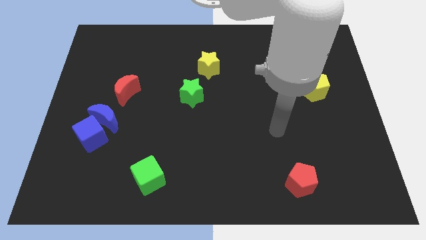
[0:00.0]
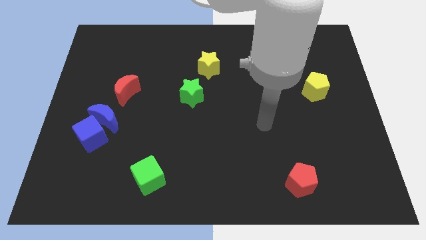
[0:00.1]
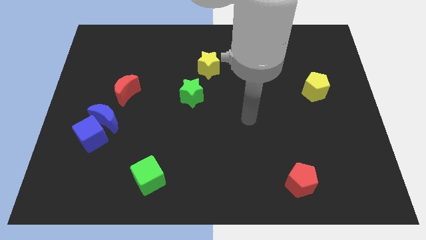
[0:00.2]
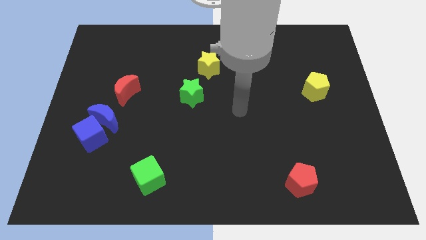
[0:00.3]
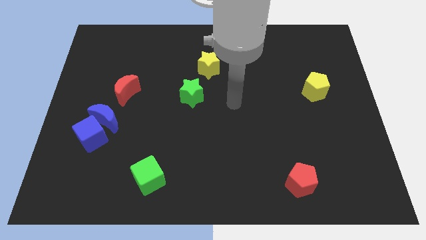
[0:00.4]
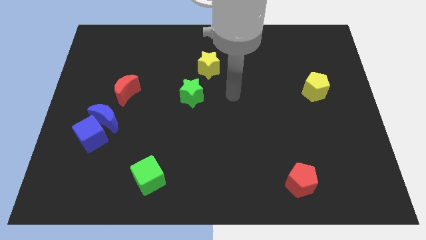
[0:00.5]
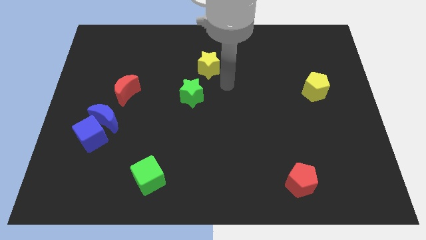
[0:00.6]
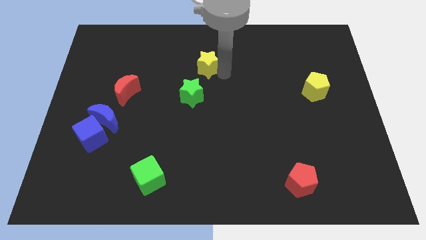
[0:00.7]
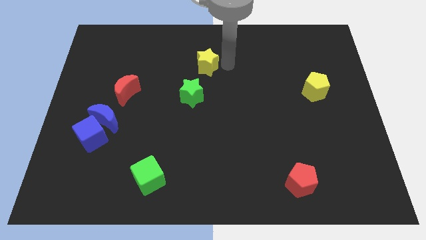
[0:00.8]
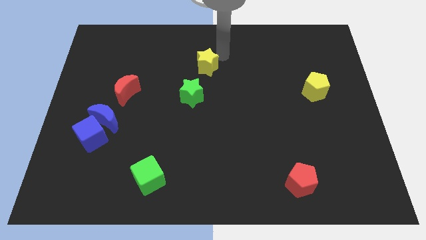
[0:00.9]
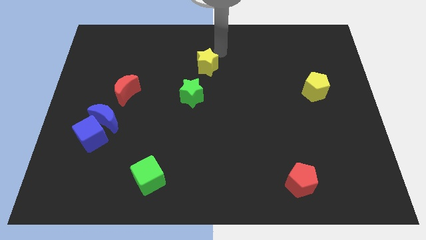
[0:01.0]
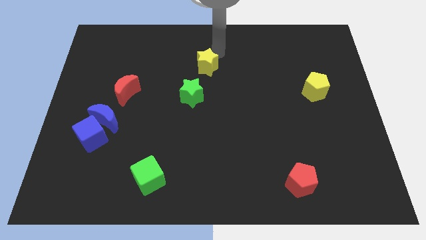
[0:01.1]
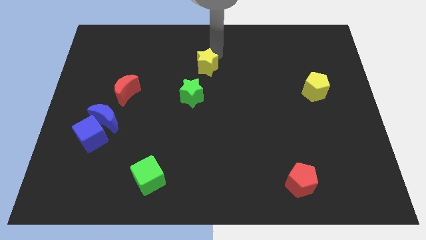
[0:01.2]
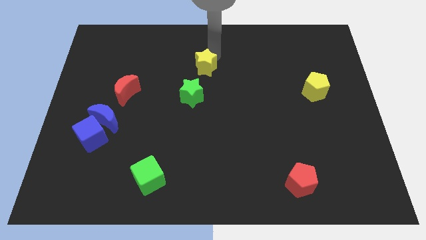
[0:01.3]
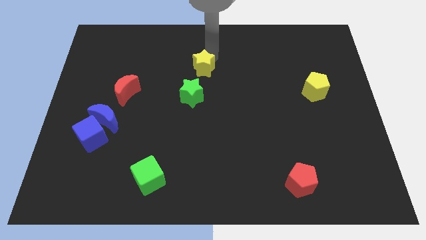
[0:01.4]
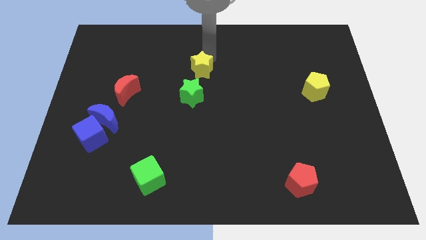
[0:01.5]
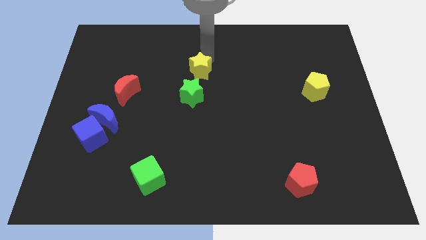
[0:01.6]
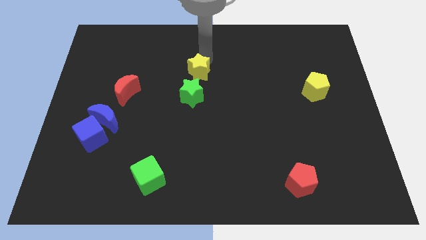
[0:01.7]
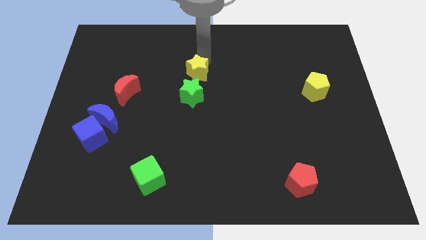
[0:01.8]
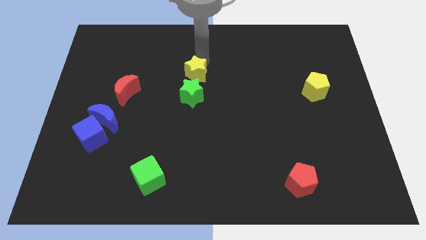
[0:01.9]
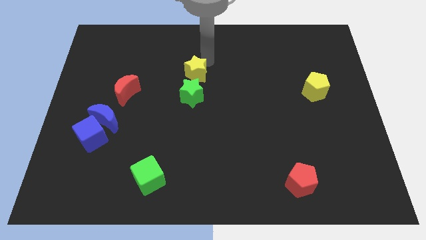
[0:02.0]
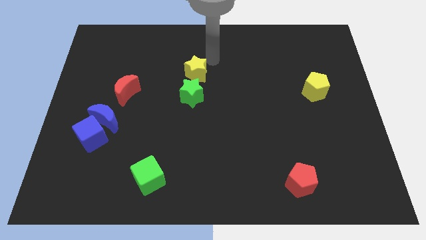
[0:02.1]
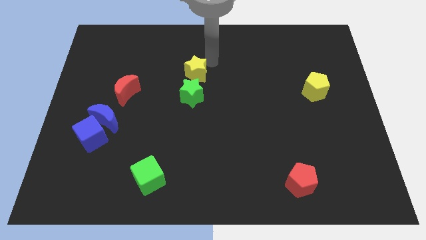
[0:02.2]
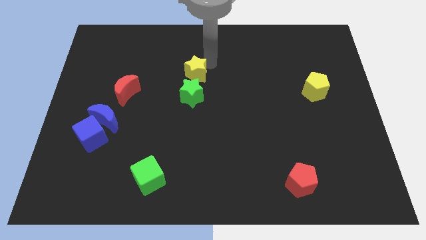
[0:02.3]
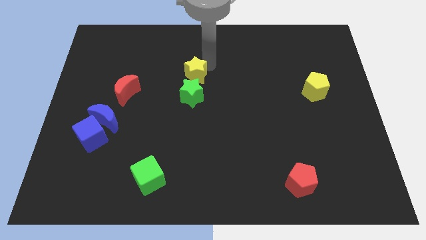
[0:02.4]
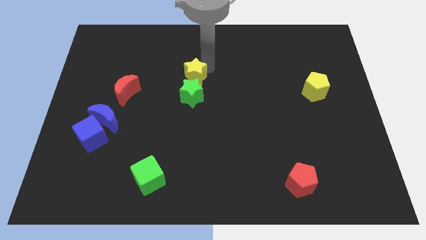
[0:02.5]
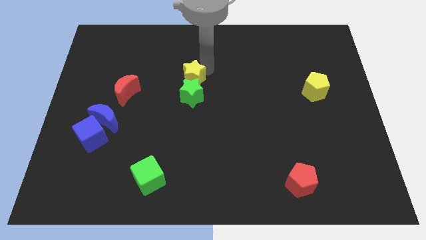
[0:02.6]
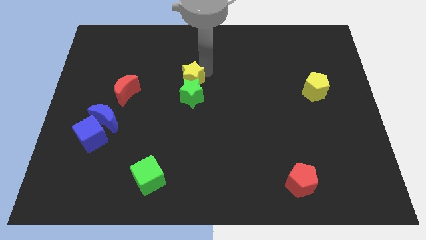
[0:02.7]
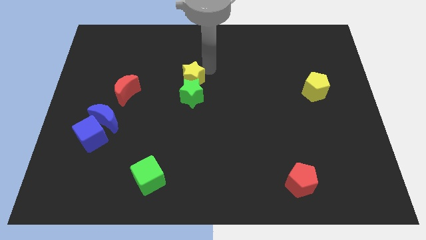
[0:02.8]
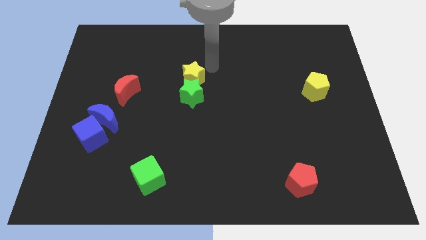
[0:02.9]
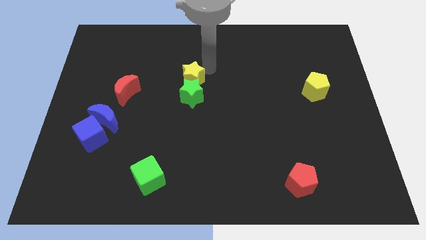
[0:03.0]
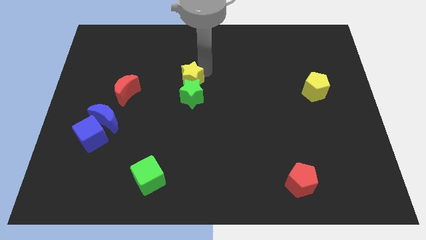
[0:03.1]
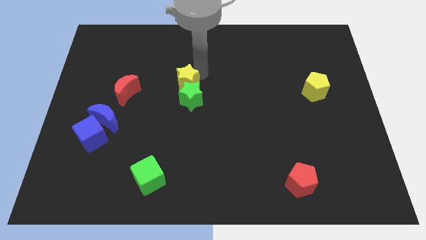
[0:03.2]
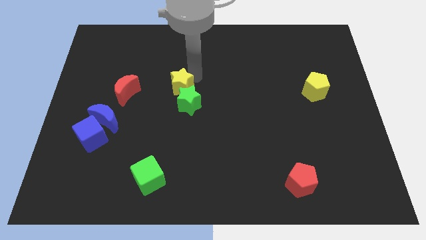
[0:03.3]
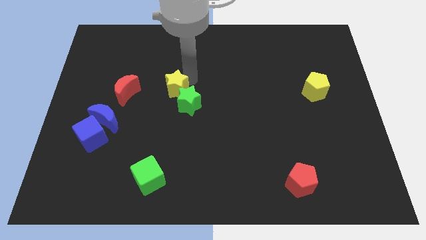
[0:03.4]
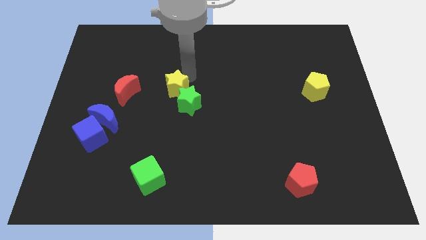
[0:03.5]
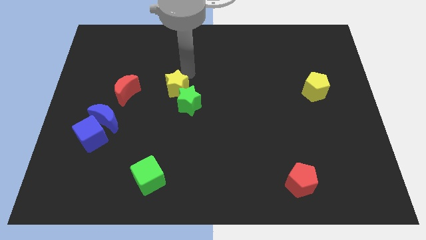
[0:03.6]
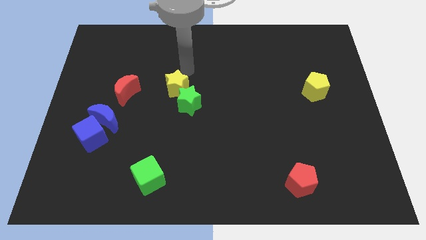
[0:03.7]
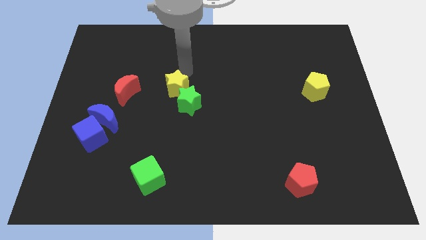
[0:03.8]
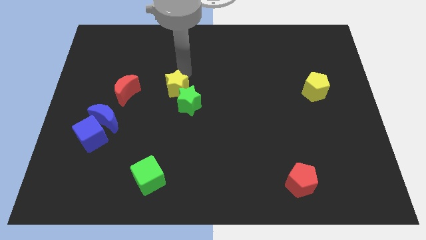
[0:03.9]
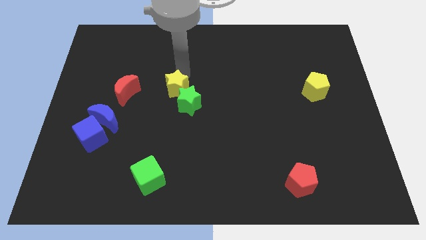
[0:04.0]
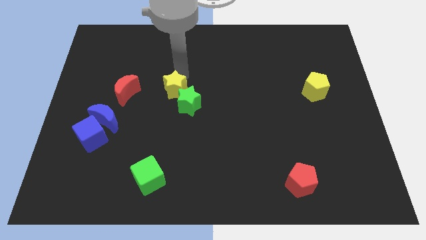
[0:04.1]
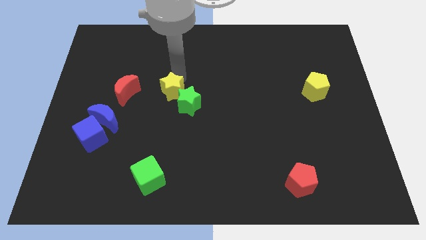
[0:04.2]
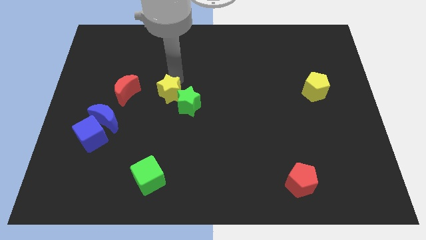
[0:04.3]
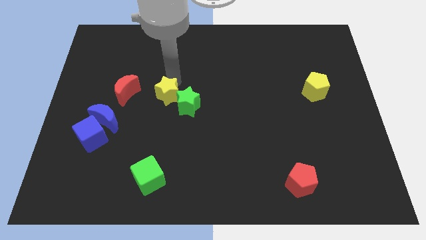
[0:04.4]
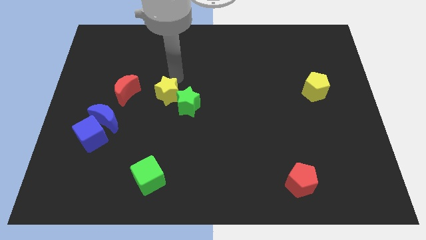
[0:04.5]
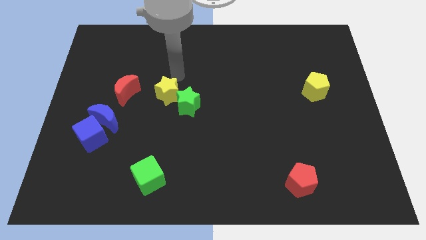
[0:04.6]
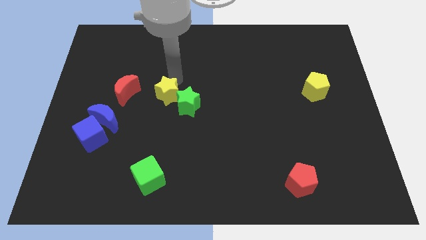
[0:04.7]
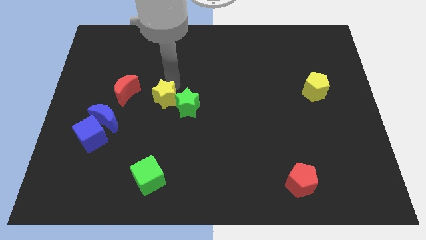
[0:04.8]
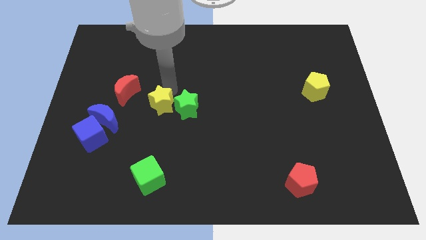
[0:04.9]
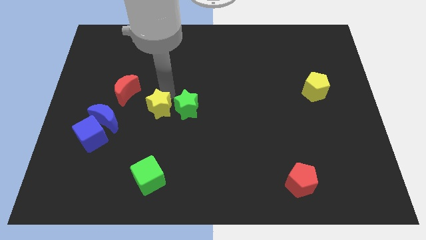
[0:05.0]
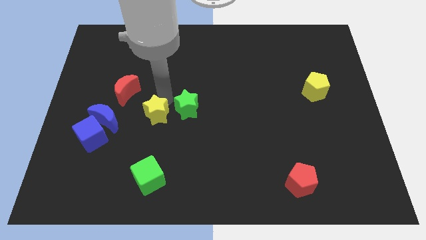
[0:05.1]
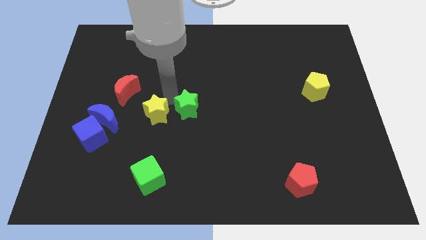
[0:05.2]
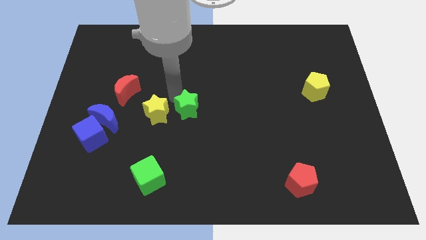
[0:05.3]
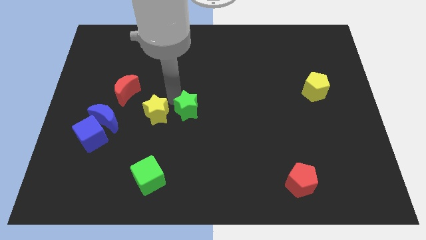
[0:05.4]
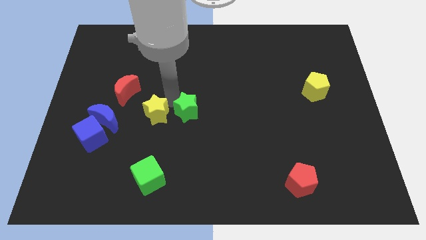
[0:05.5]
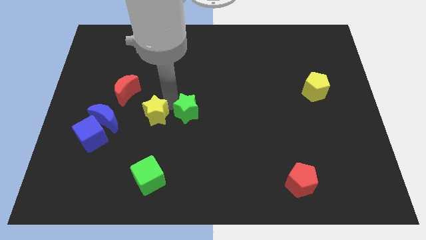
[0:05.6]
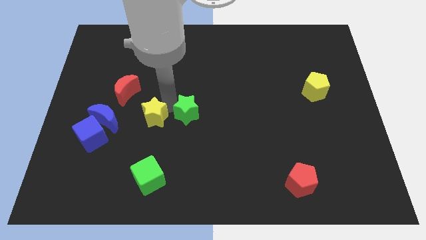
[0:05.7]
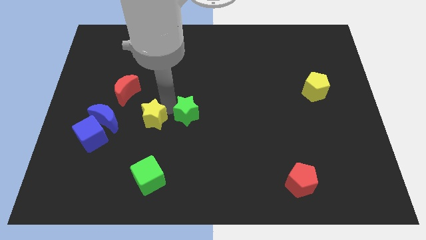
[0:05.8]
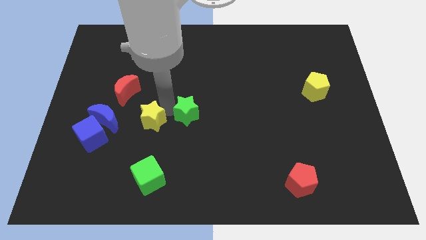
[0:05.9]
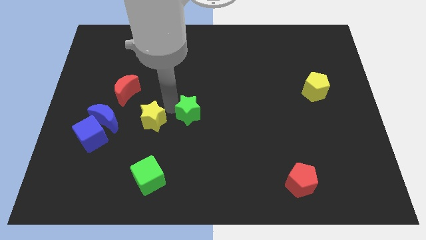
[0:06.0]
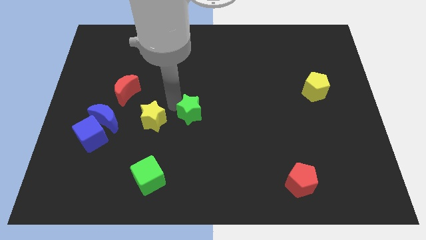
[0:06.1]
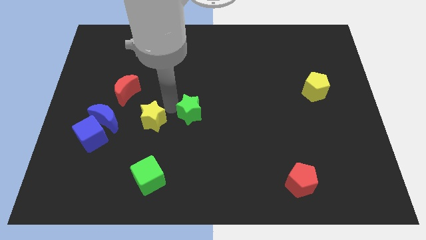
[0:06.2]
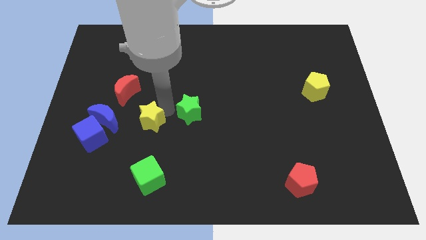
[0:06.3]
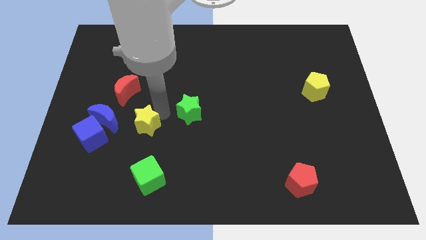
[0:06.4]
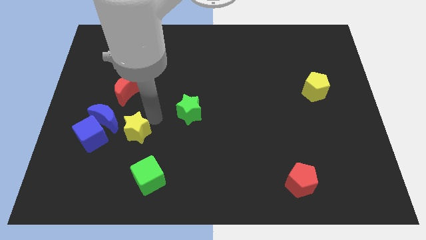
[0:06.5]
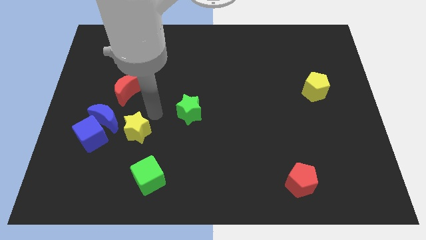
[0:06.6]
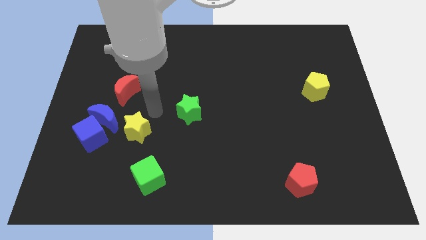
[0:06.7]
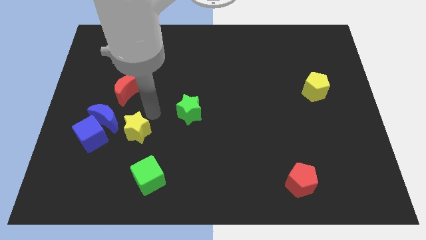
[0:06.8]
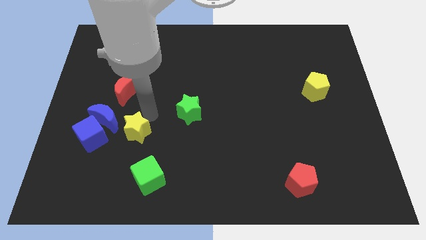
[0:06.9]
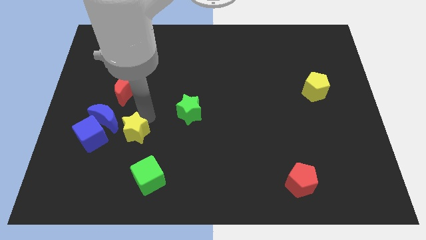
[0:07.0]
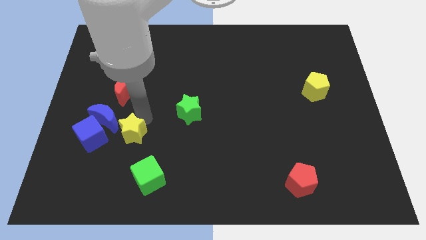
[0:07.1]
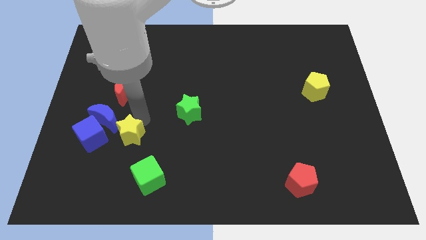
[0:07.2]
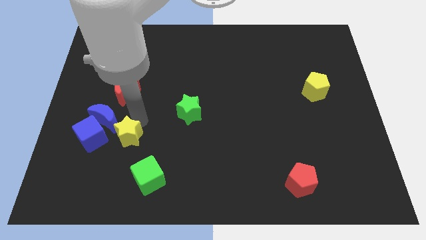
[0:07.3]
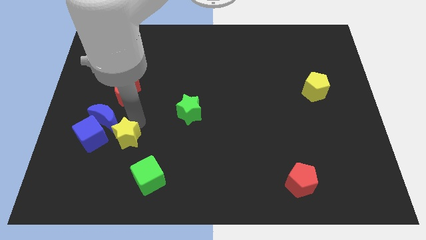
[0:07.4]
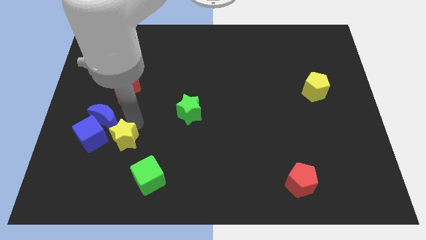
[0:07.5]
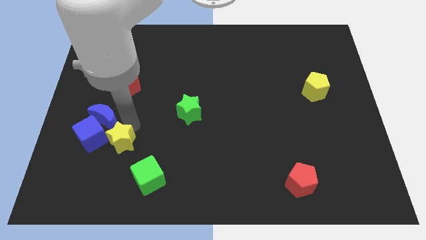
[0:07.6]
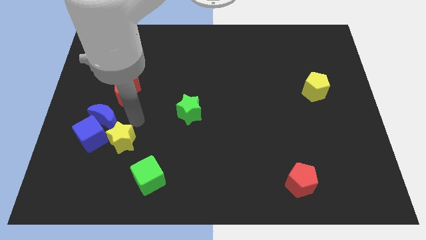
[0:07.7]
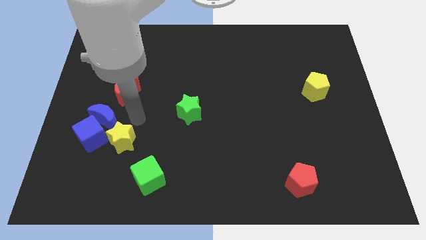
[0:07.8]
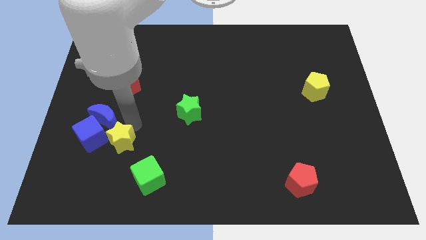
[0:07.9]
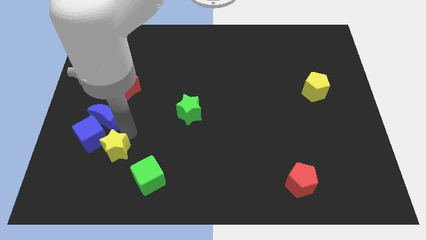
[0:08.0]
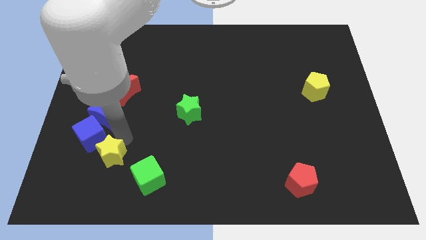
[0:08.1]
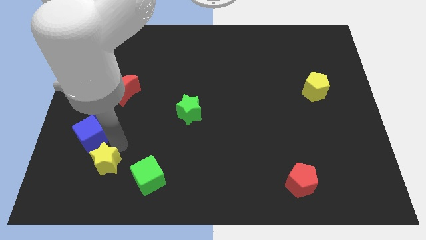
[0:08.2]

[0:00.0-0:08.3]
slide the yellow star to the left of the green cube

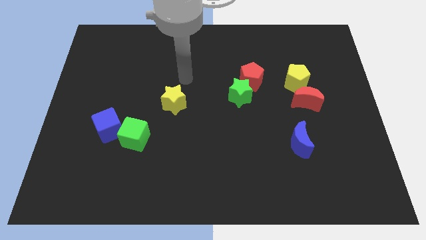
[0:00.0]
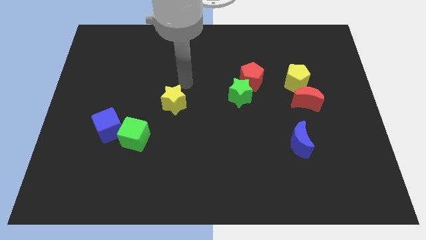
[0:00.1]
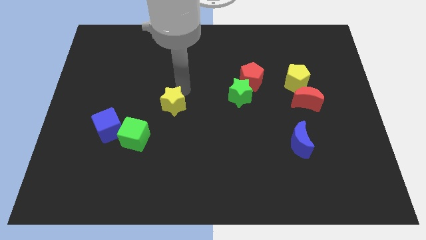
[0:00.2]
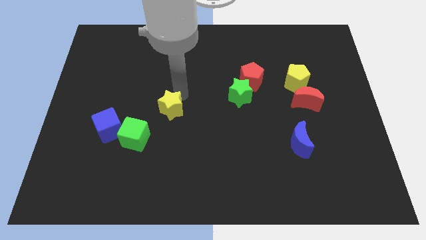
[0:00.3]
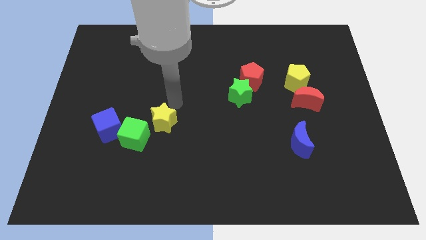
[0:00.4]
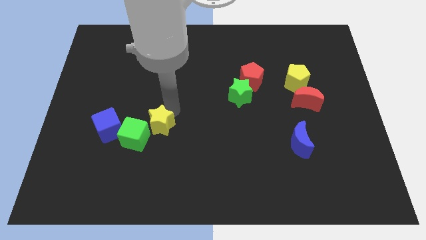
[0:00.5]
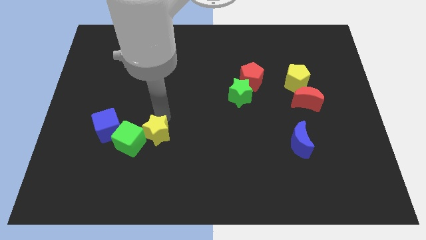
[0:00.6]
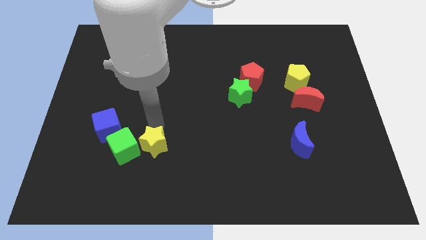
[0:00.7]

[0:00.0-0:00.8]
push the green cube below the blue cube
